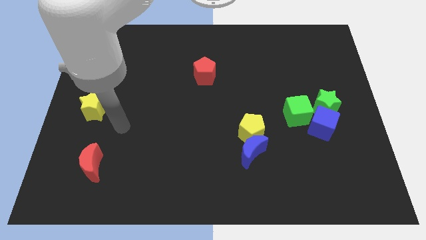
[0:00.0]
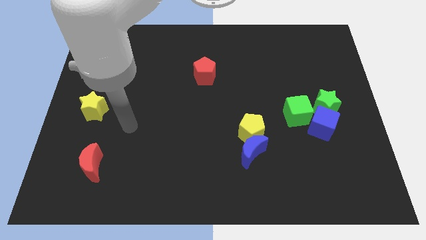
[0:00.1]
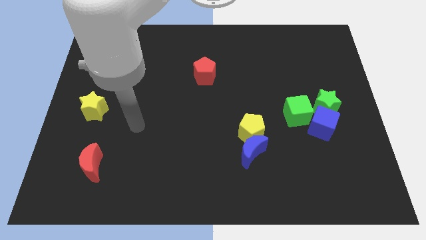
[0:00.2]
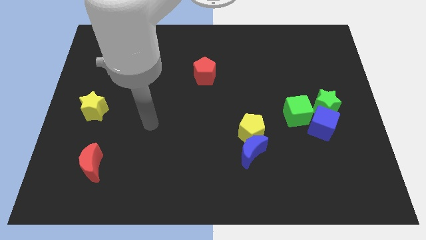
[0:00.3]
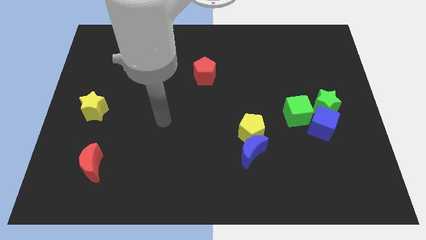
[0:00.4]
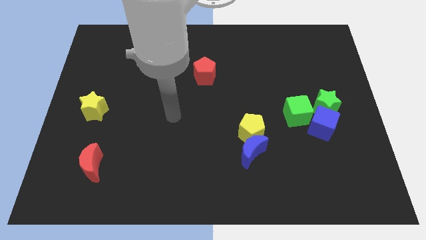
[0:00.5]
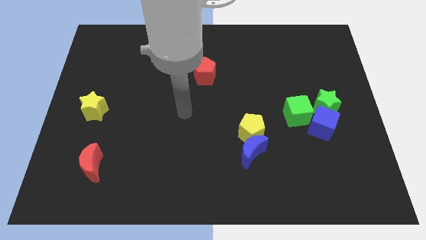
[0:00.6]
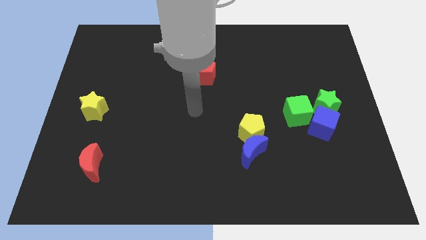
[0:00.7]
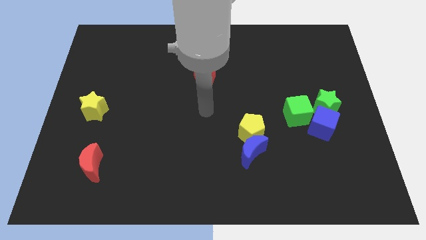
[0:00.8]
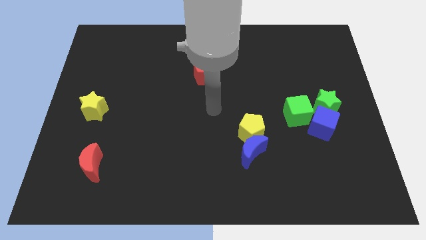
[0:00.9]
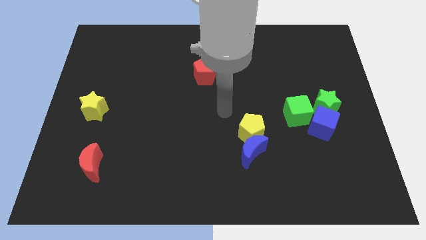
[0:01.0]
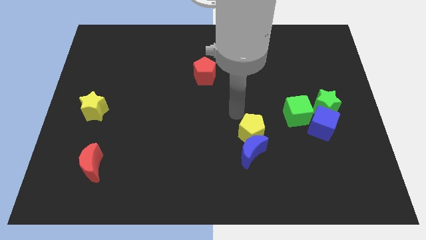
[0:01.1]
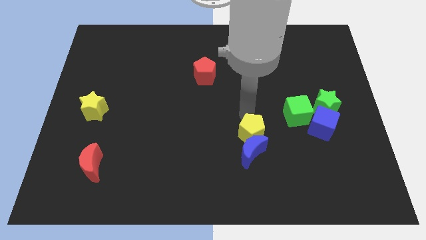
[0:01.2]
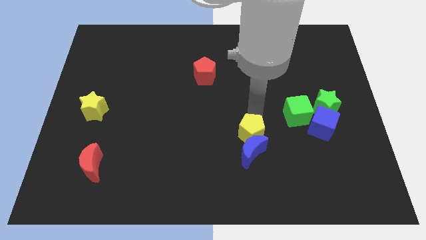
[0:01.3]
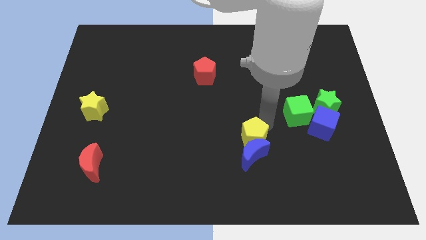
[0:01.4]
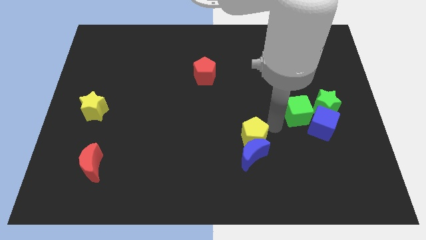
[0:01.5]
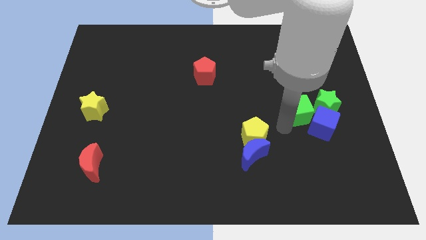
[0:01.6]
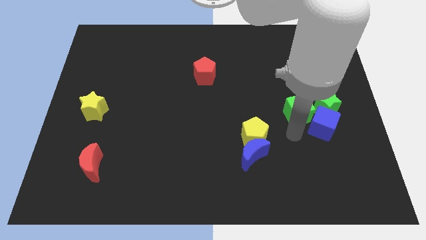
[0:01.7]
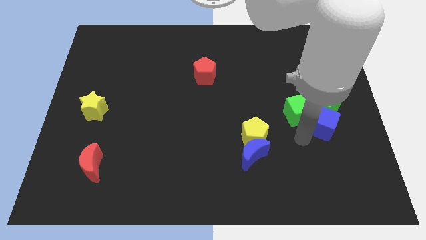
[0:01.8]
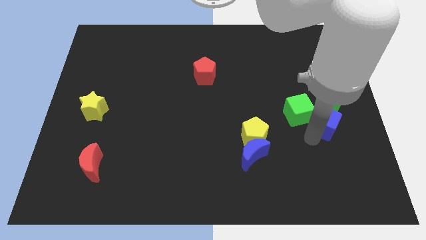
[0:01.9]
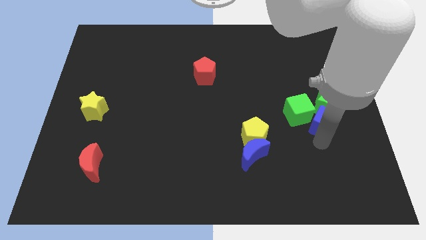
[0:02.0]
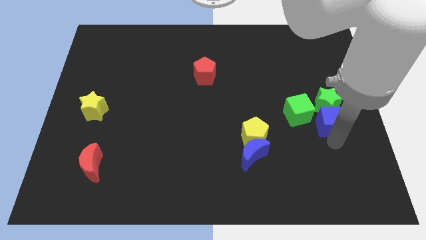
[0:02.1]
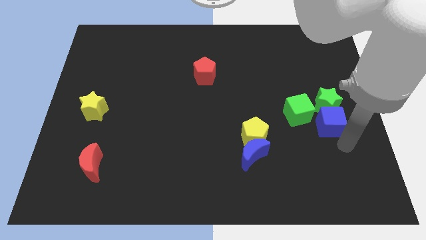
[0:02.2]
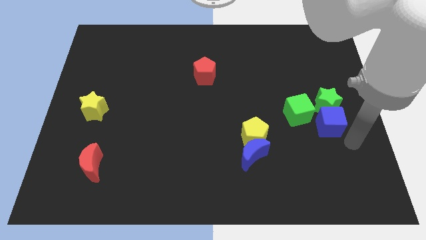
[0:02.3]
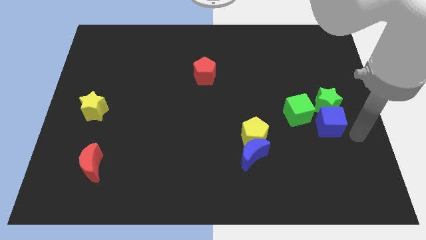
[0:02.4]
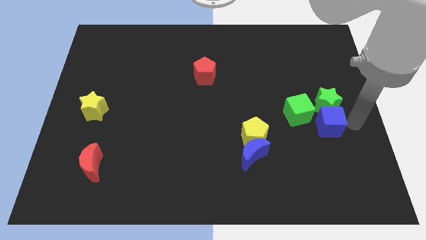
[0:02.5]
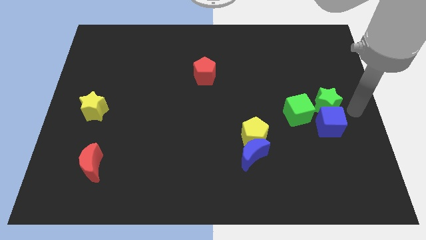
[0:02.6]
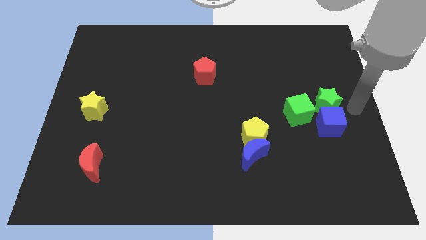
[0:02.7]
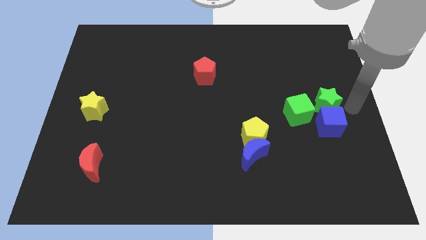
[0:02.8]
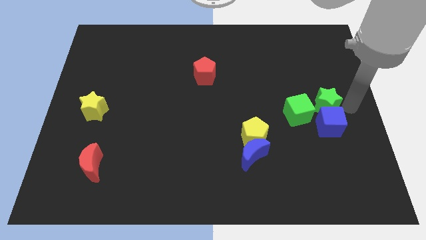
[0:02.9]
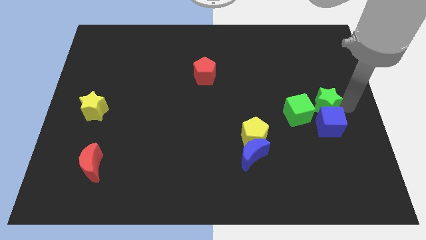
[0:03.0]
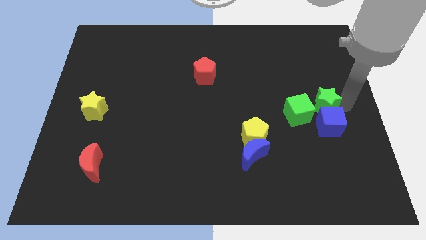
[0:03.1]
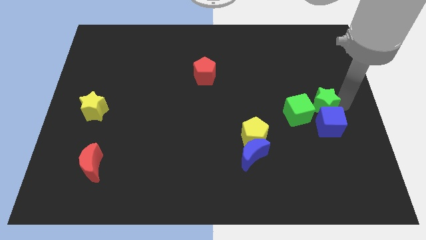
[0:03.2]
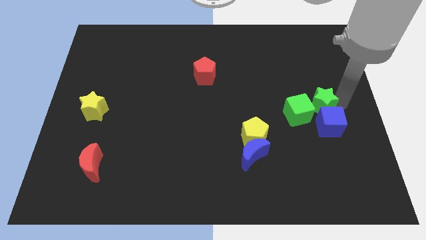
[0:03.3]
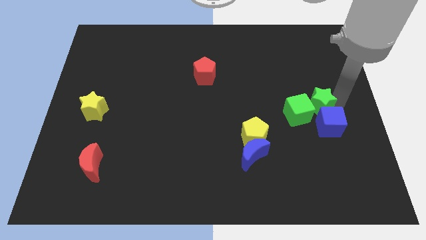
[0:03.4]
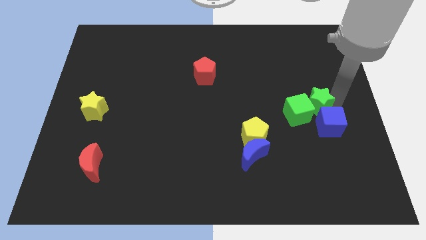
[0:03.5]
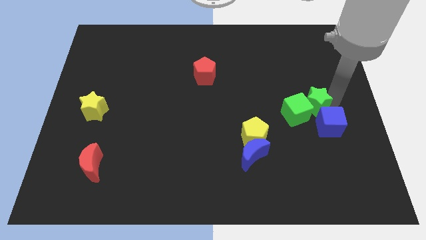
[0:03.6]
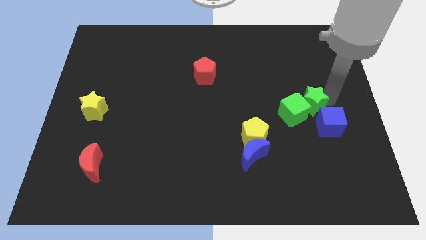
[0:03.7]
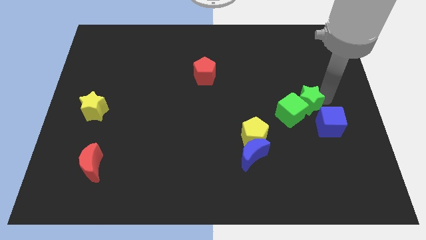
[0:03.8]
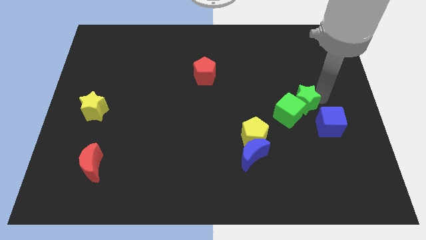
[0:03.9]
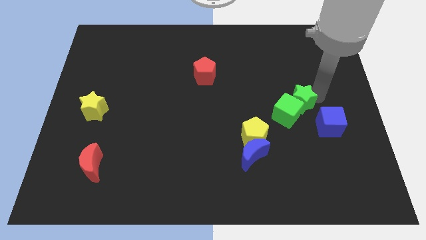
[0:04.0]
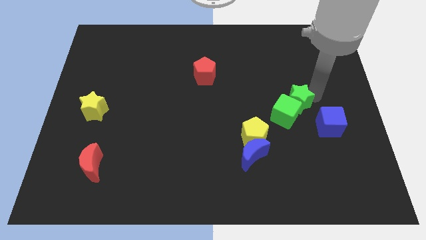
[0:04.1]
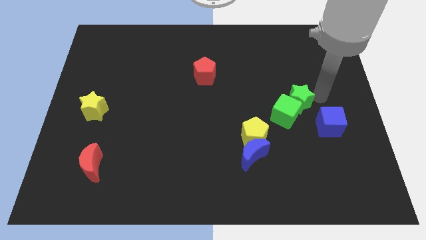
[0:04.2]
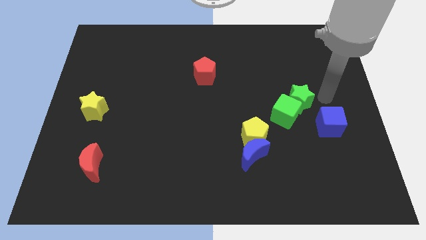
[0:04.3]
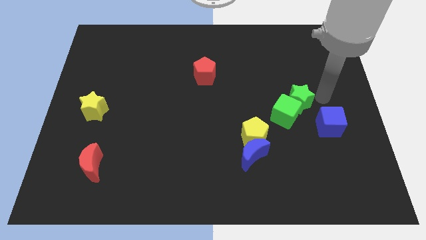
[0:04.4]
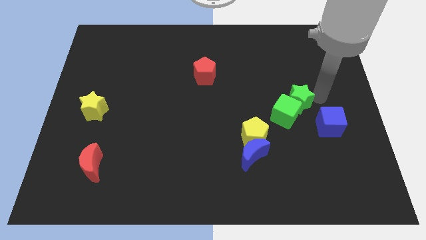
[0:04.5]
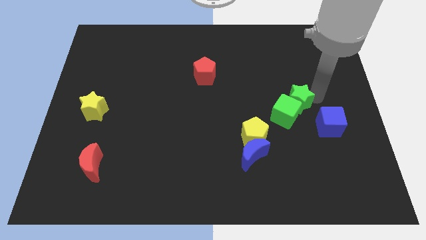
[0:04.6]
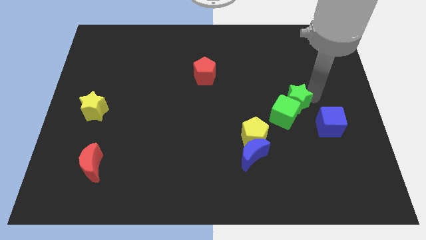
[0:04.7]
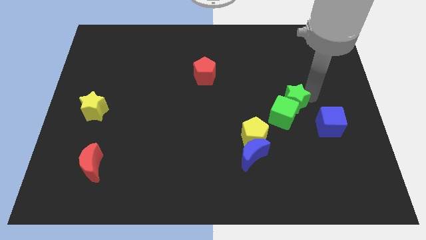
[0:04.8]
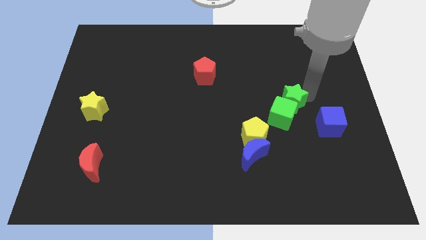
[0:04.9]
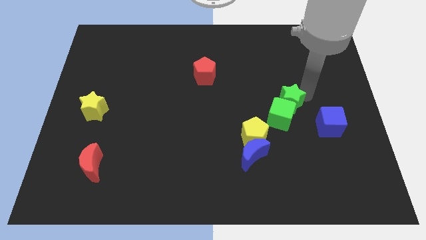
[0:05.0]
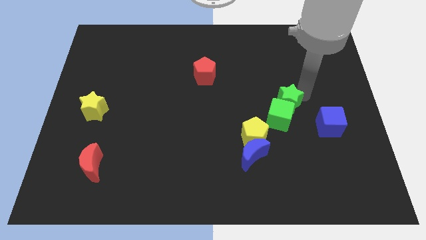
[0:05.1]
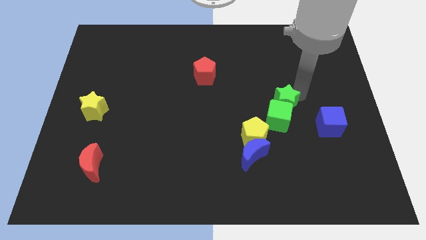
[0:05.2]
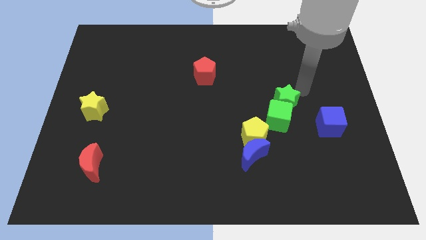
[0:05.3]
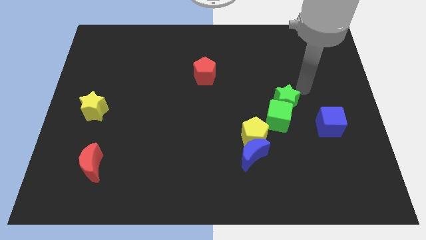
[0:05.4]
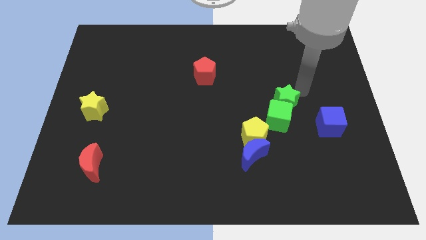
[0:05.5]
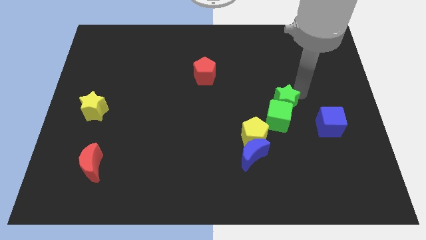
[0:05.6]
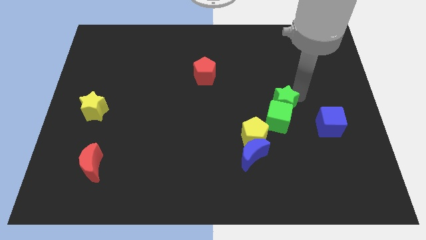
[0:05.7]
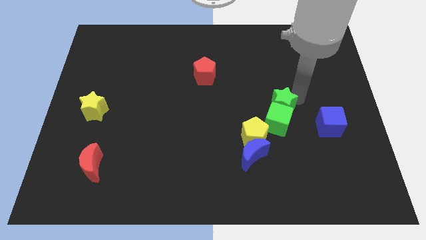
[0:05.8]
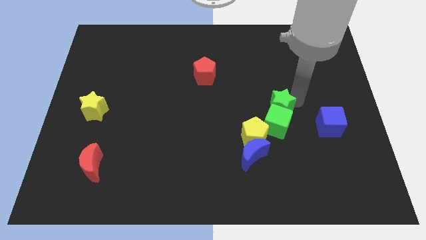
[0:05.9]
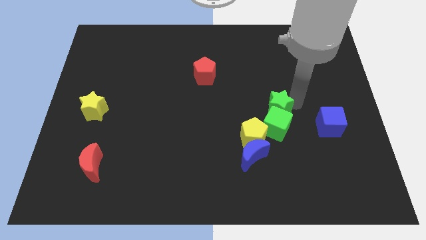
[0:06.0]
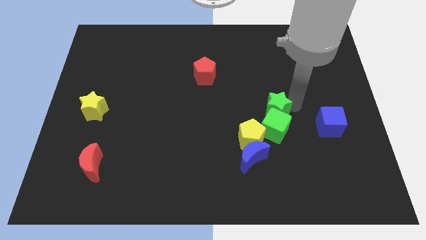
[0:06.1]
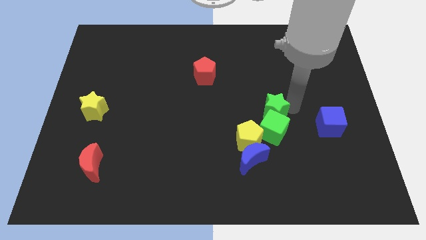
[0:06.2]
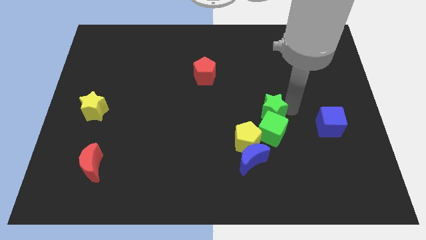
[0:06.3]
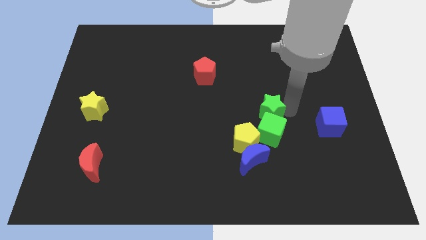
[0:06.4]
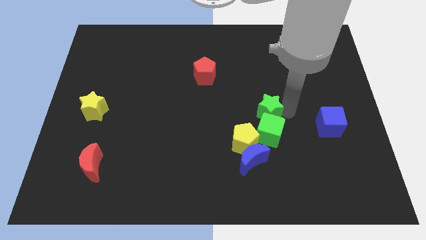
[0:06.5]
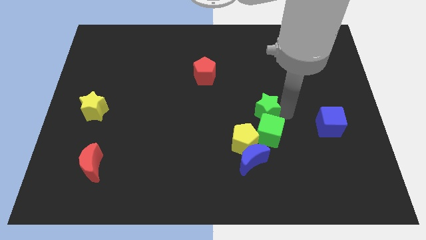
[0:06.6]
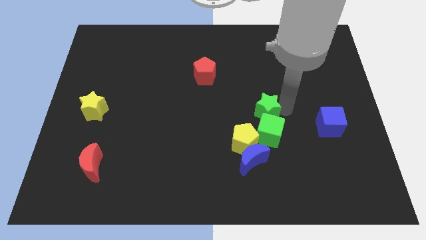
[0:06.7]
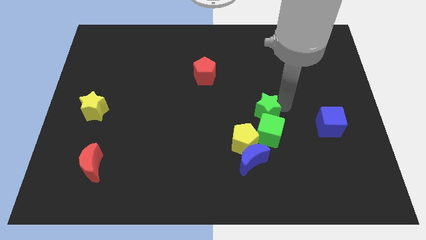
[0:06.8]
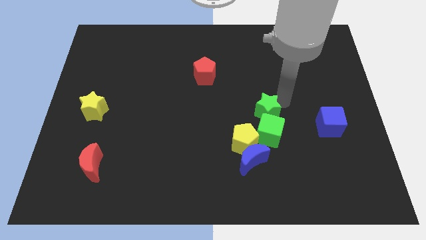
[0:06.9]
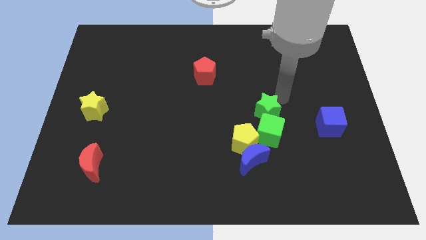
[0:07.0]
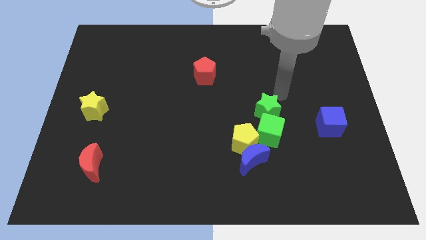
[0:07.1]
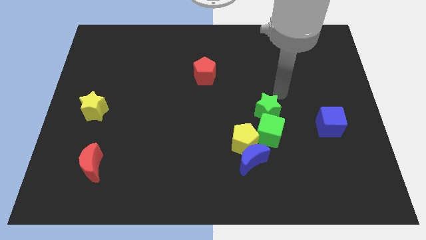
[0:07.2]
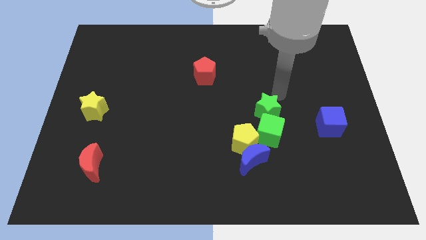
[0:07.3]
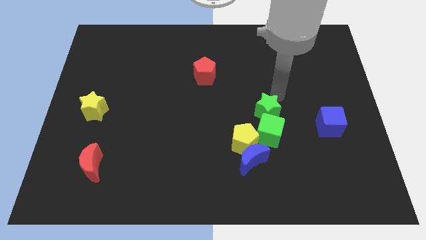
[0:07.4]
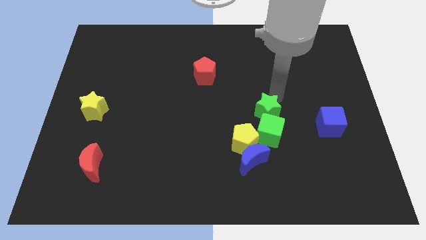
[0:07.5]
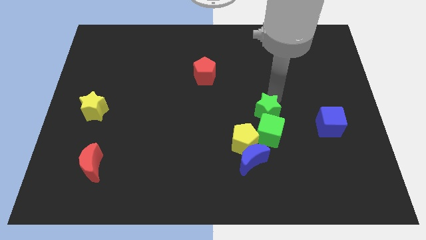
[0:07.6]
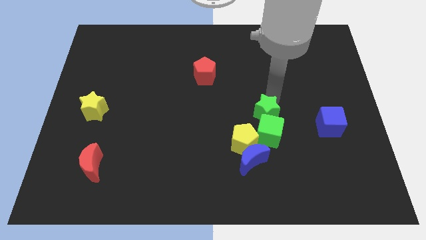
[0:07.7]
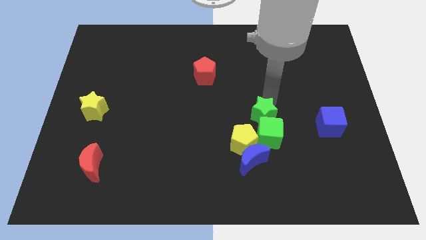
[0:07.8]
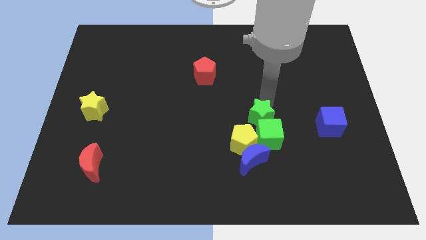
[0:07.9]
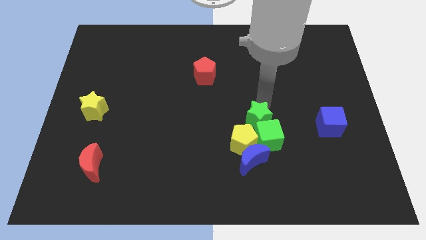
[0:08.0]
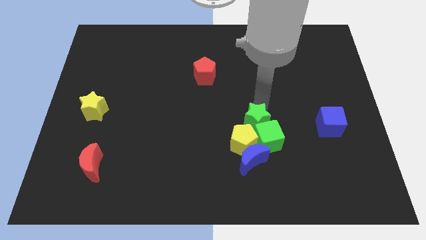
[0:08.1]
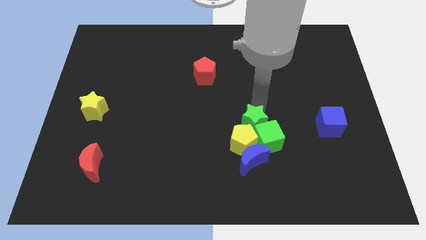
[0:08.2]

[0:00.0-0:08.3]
put the green star towards the yellow pentagon
